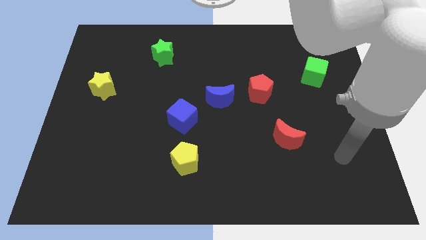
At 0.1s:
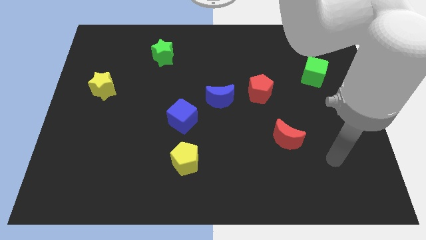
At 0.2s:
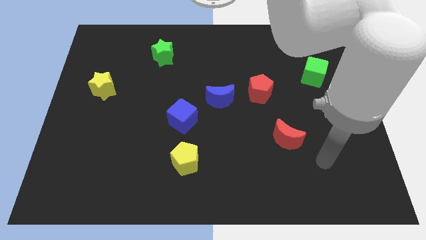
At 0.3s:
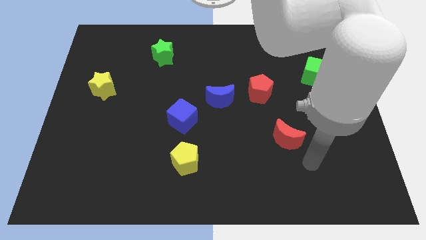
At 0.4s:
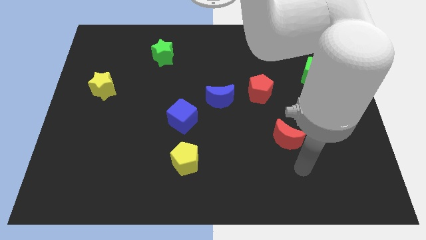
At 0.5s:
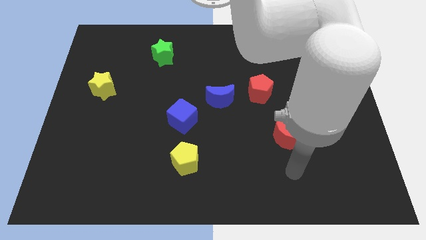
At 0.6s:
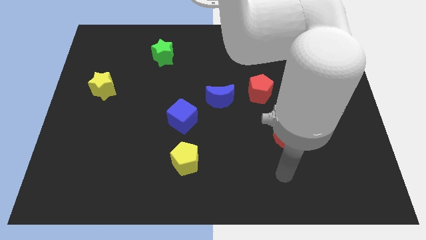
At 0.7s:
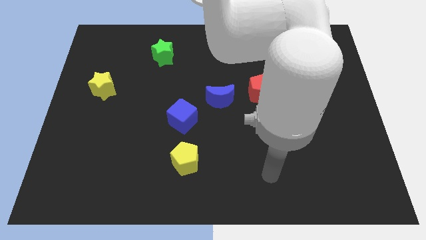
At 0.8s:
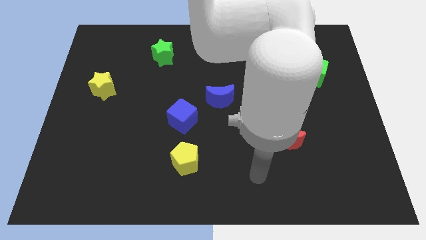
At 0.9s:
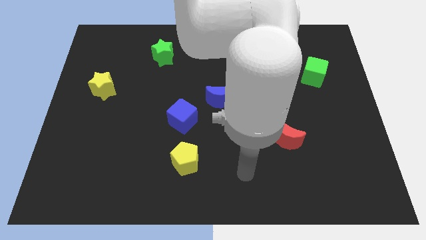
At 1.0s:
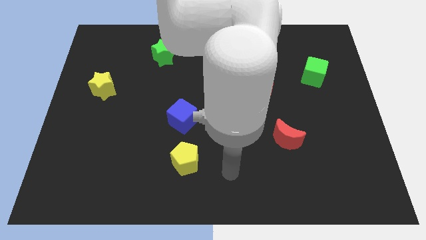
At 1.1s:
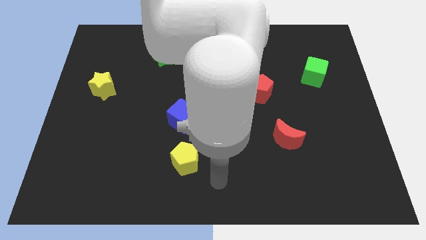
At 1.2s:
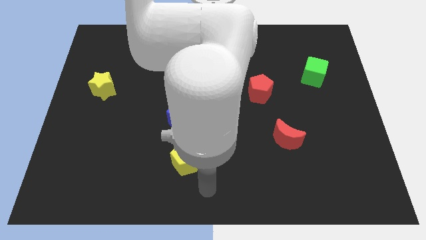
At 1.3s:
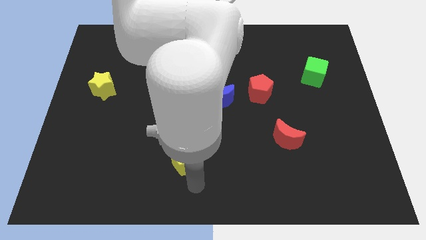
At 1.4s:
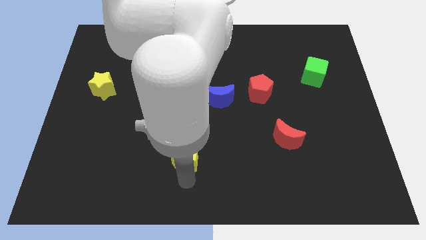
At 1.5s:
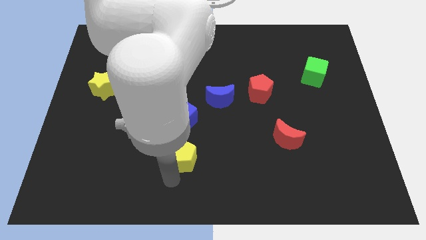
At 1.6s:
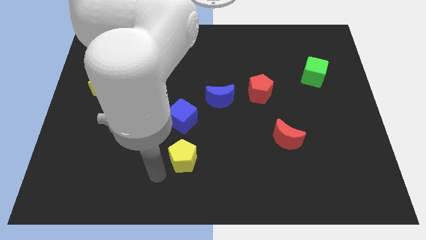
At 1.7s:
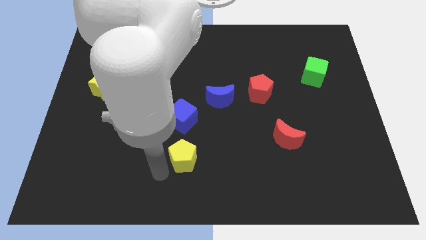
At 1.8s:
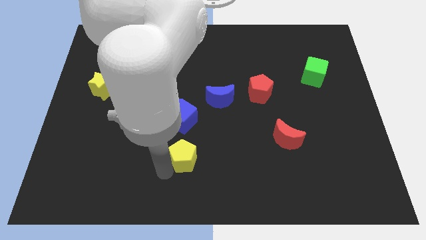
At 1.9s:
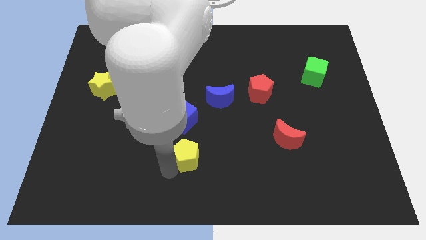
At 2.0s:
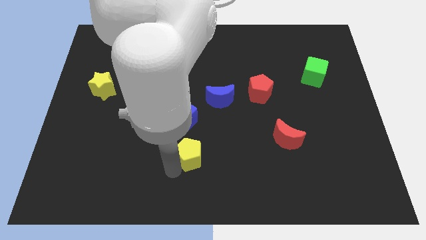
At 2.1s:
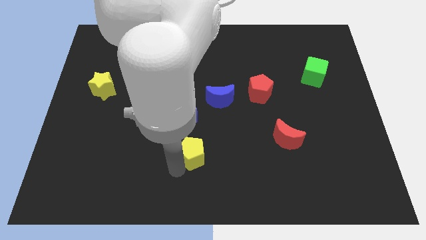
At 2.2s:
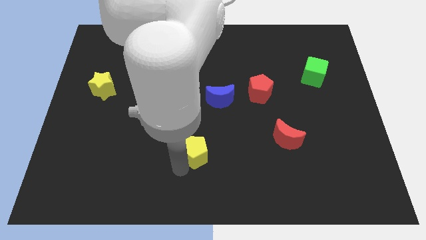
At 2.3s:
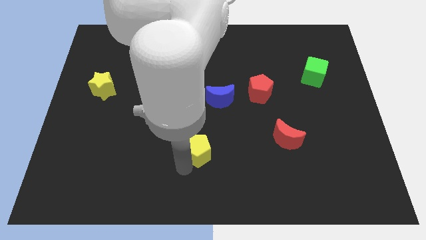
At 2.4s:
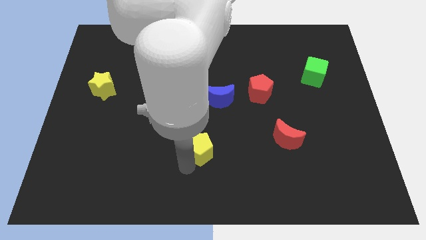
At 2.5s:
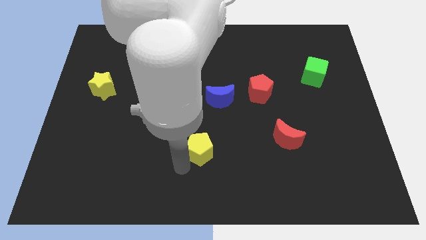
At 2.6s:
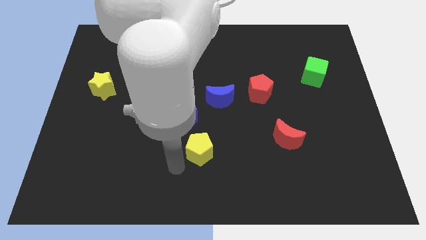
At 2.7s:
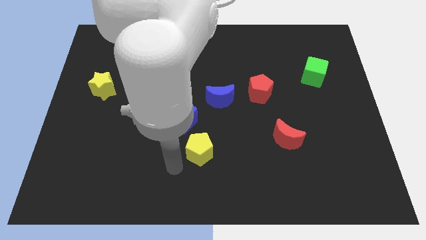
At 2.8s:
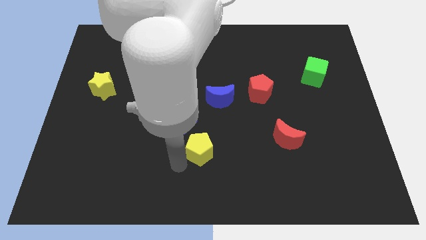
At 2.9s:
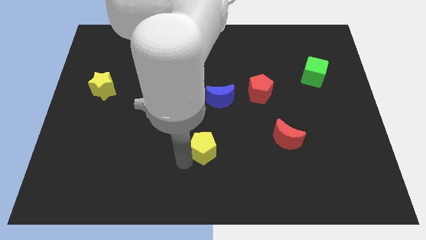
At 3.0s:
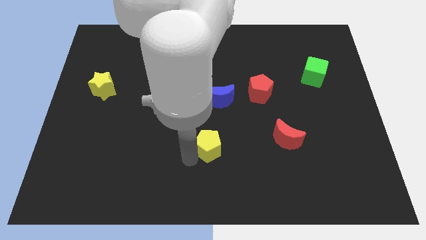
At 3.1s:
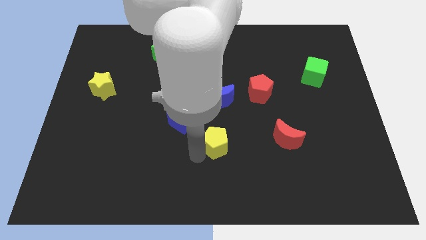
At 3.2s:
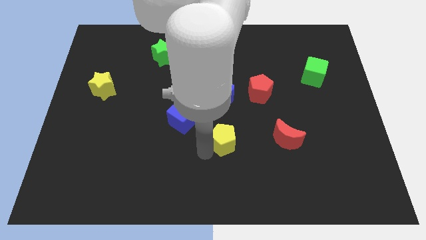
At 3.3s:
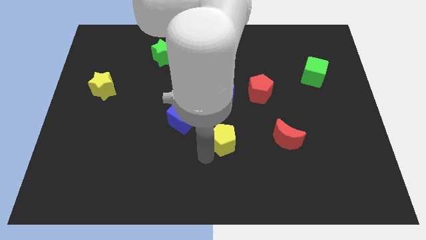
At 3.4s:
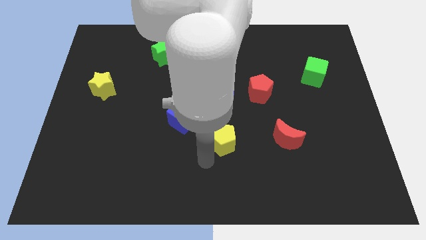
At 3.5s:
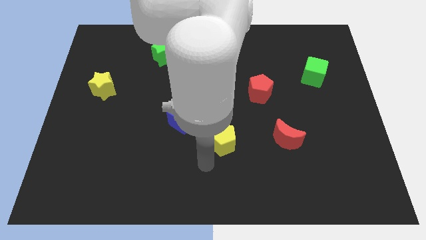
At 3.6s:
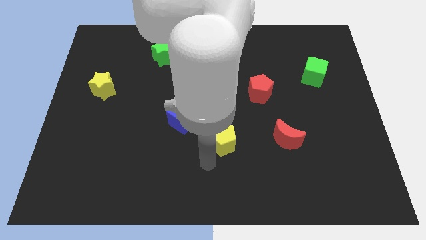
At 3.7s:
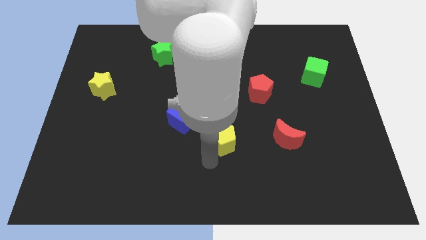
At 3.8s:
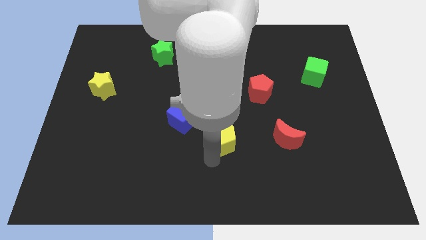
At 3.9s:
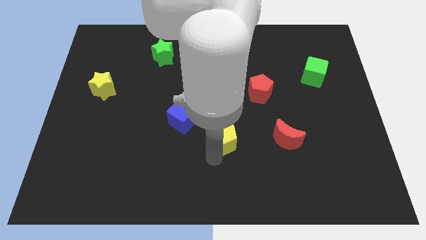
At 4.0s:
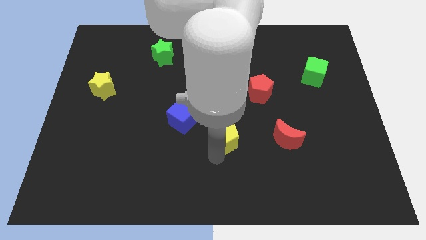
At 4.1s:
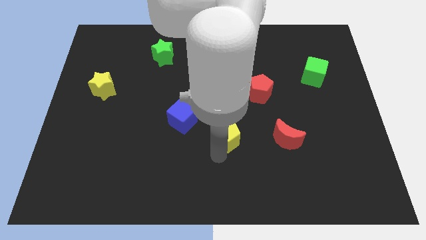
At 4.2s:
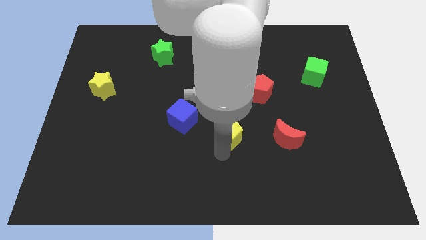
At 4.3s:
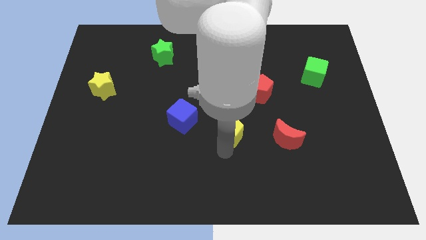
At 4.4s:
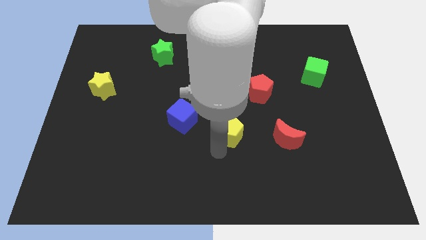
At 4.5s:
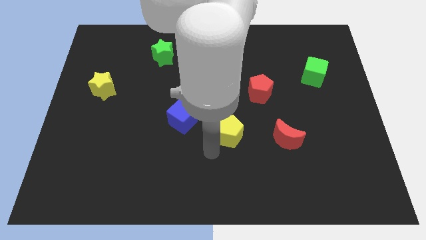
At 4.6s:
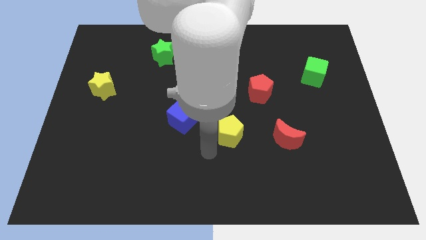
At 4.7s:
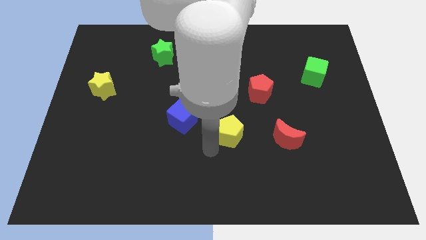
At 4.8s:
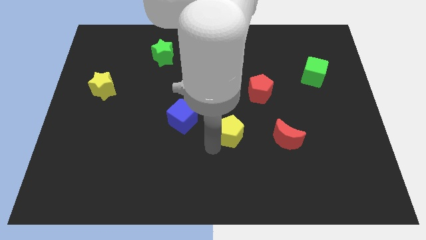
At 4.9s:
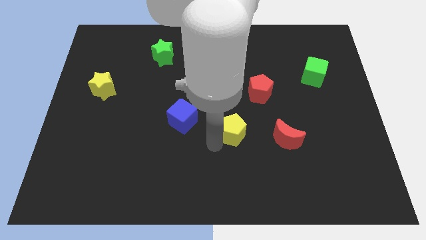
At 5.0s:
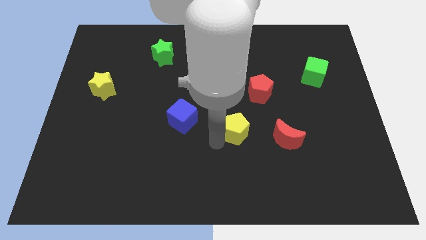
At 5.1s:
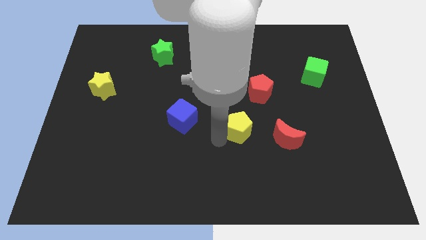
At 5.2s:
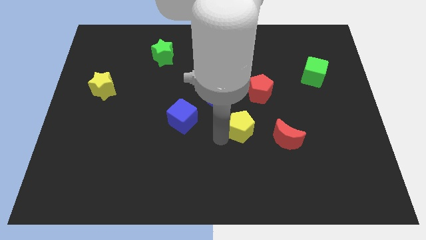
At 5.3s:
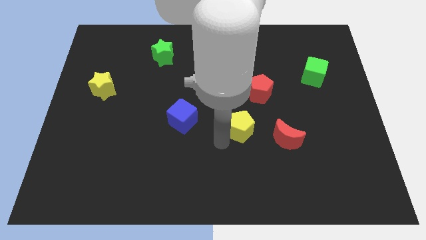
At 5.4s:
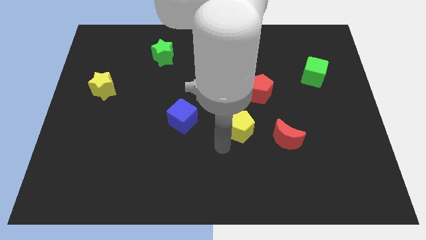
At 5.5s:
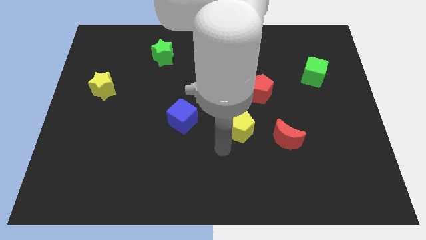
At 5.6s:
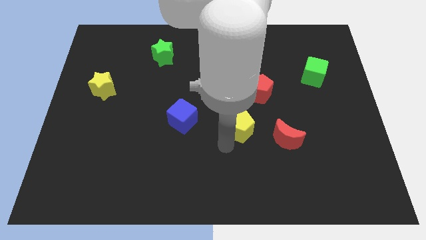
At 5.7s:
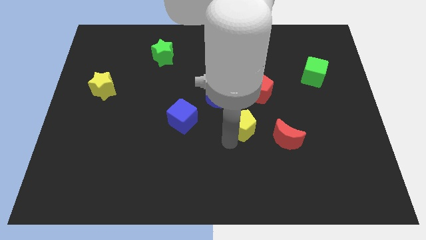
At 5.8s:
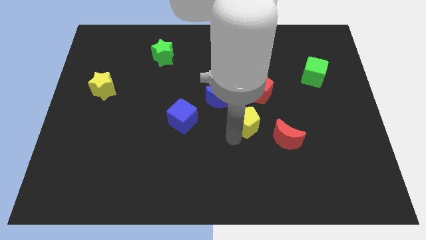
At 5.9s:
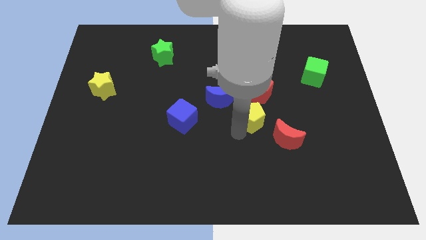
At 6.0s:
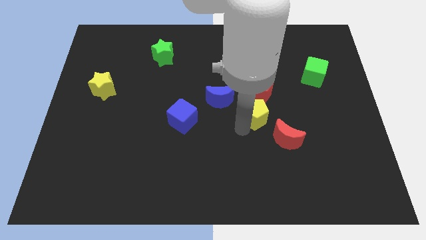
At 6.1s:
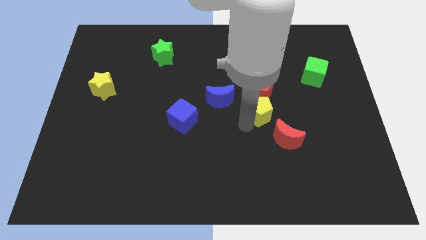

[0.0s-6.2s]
push the yellow pentagon up and to the right

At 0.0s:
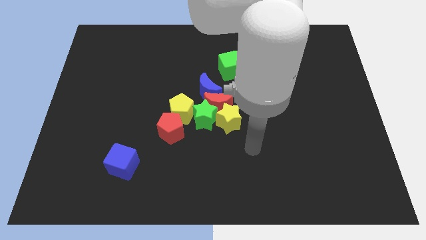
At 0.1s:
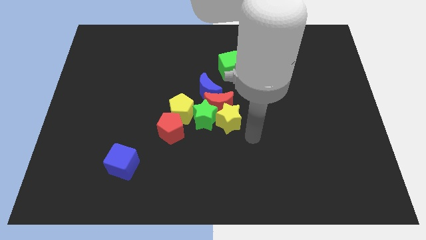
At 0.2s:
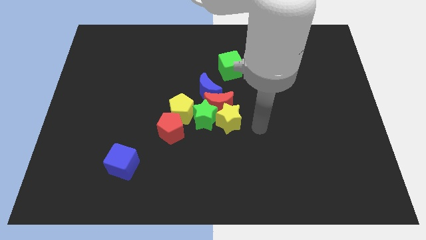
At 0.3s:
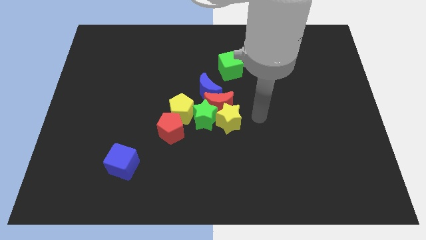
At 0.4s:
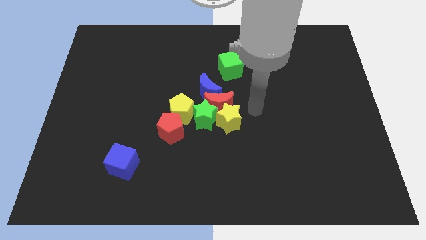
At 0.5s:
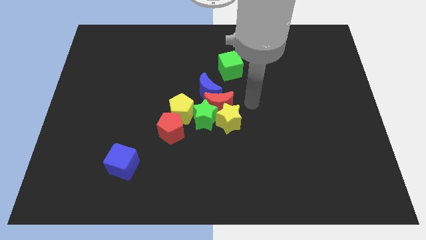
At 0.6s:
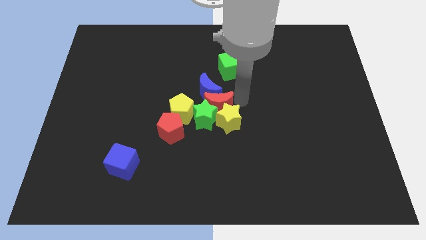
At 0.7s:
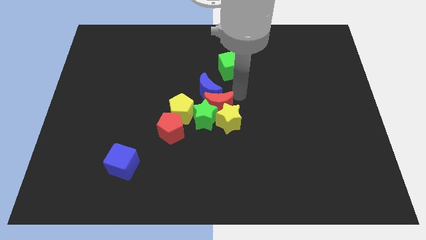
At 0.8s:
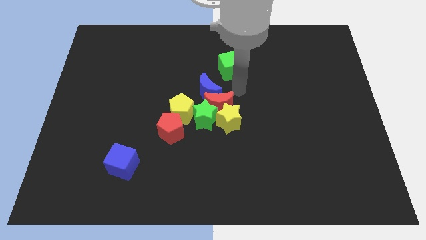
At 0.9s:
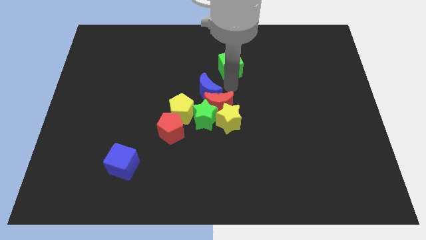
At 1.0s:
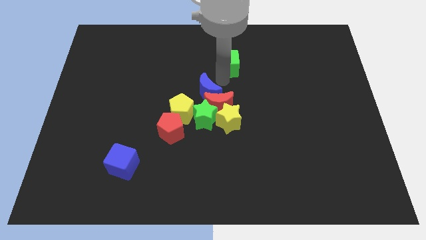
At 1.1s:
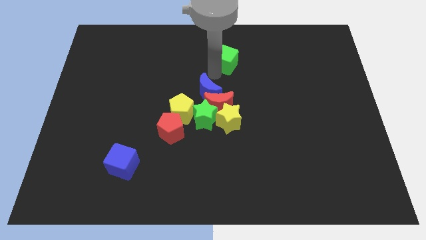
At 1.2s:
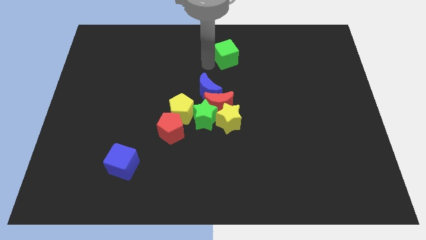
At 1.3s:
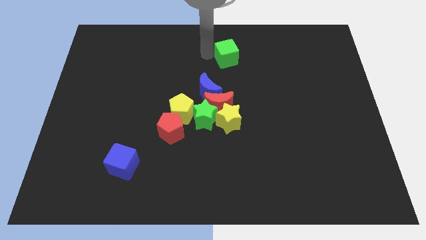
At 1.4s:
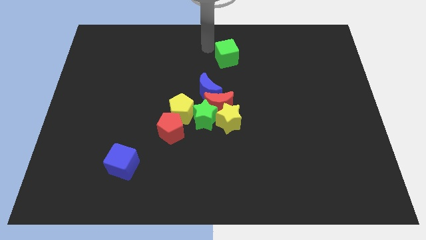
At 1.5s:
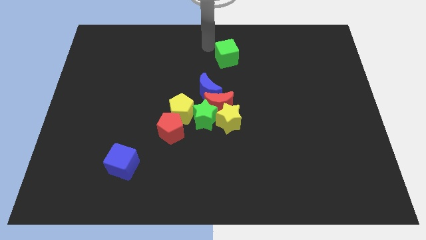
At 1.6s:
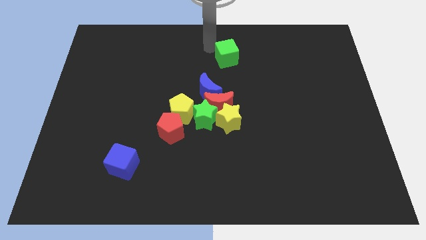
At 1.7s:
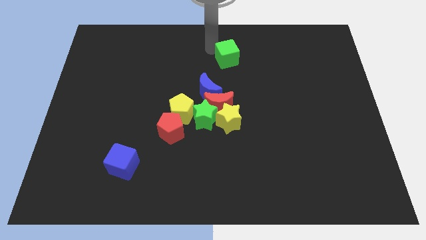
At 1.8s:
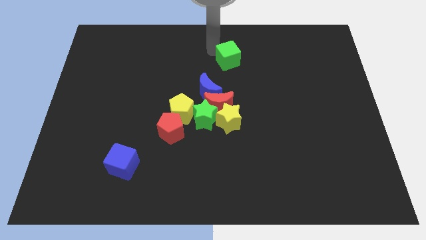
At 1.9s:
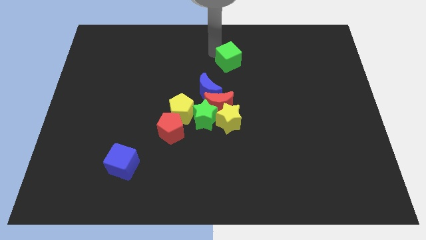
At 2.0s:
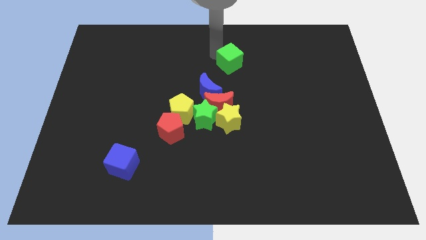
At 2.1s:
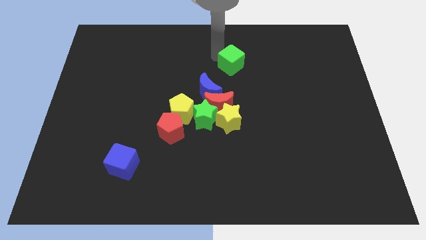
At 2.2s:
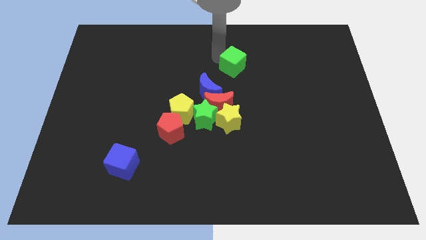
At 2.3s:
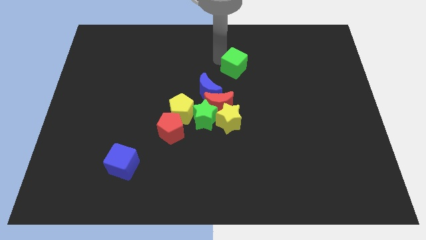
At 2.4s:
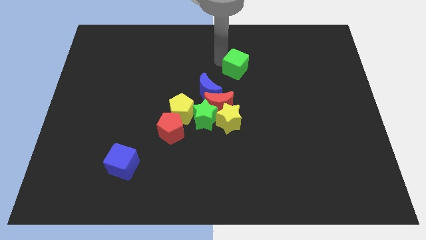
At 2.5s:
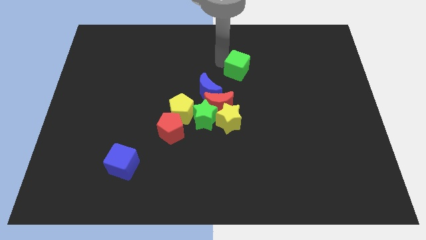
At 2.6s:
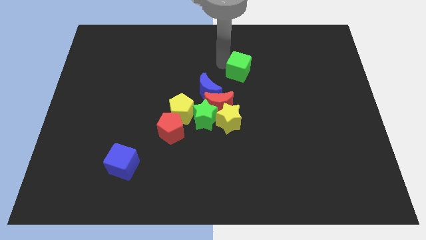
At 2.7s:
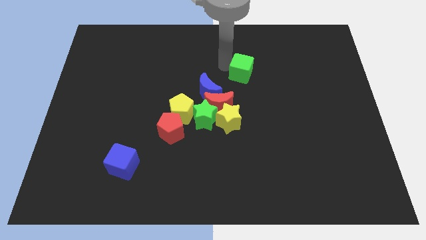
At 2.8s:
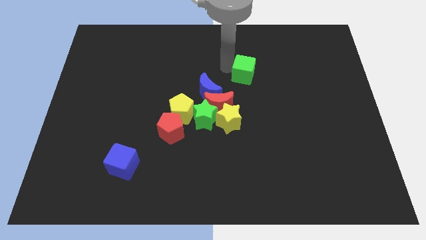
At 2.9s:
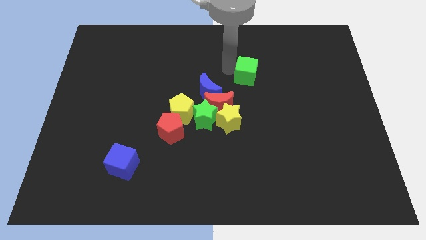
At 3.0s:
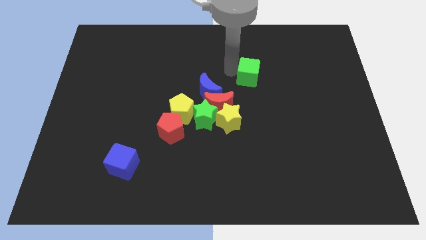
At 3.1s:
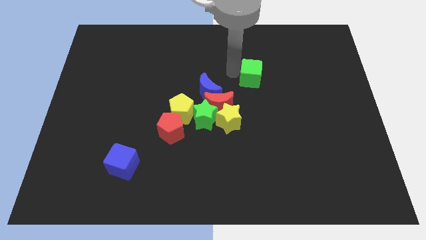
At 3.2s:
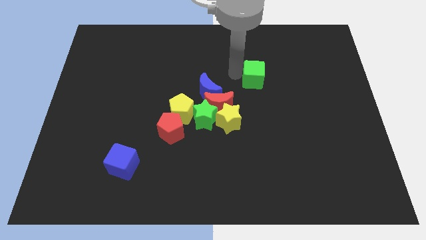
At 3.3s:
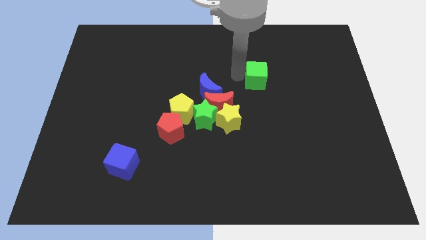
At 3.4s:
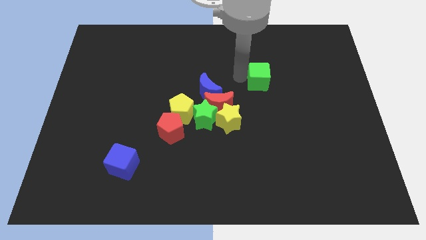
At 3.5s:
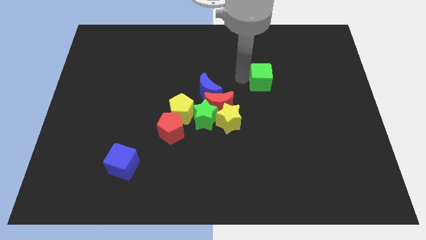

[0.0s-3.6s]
push the green cube to the right a bit
